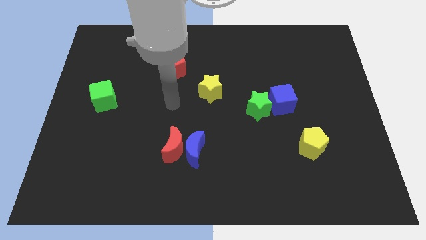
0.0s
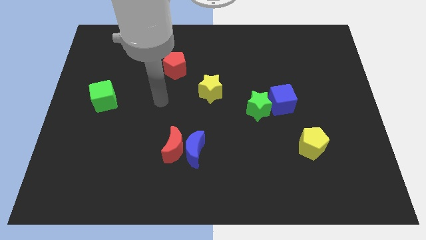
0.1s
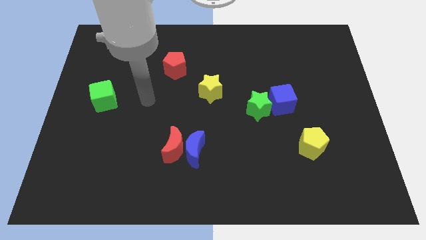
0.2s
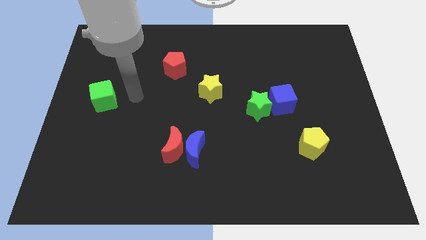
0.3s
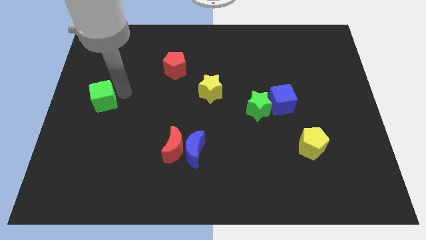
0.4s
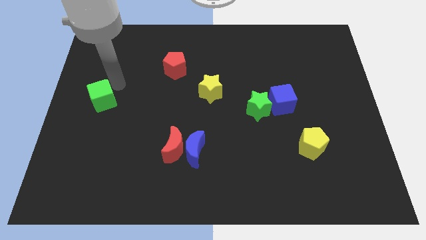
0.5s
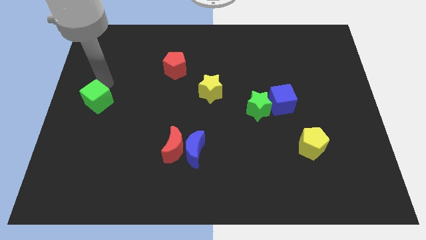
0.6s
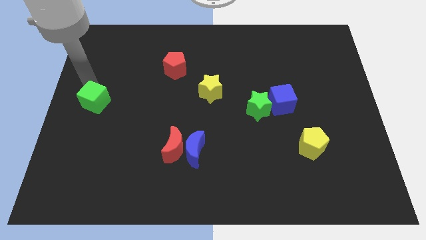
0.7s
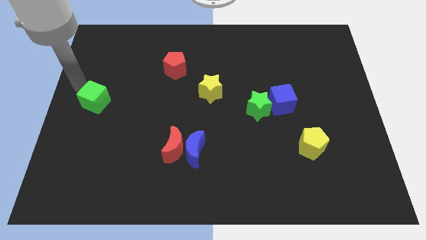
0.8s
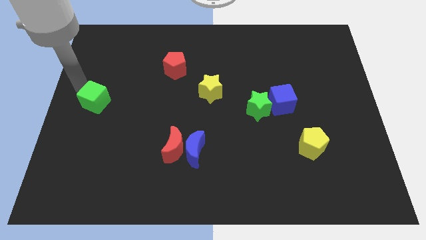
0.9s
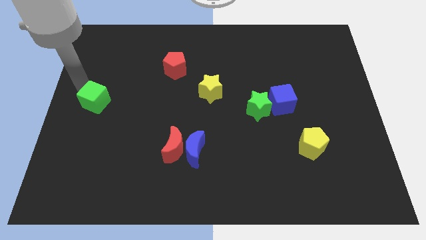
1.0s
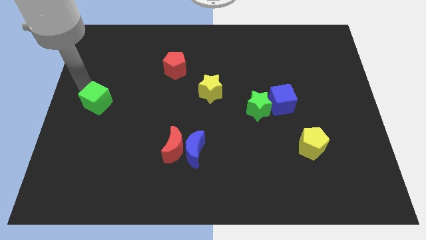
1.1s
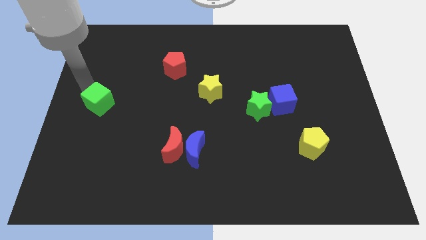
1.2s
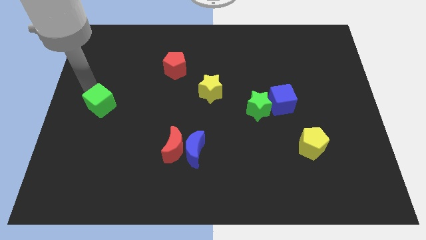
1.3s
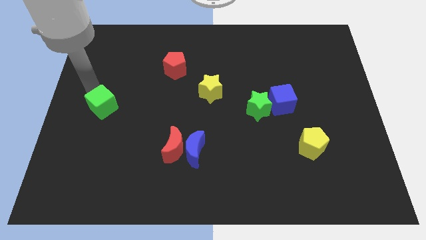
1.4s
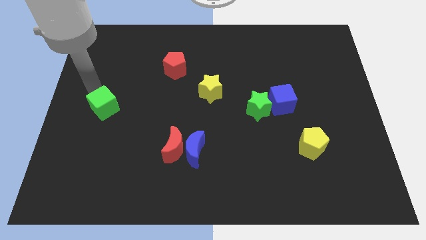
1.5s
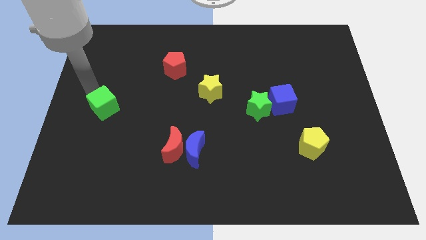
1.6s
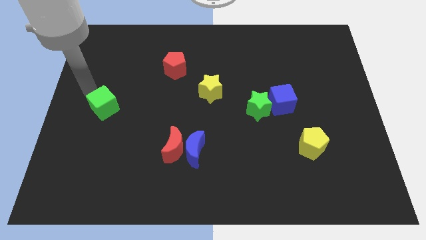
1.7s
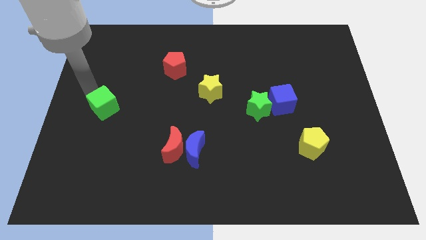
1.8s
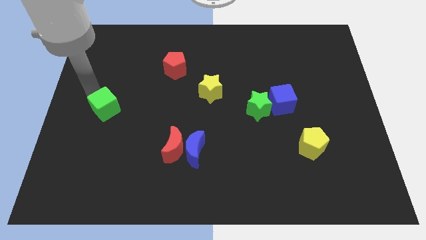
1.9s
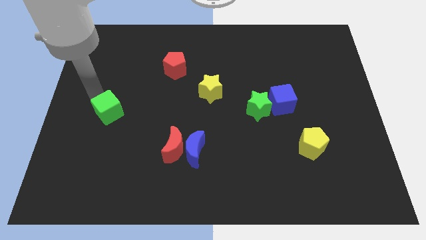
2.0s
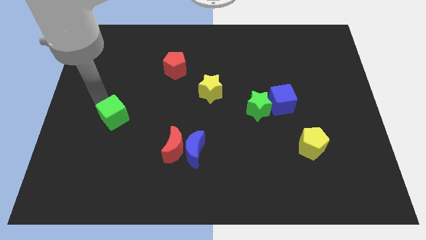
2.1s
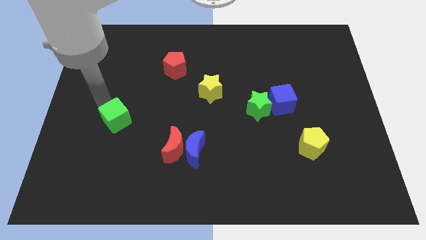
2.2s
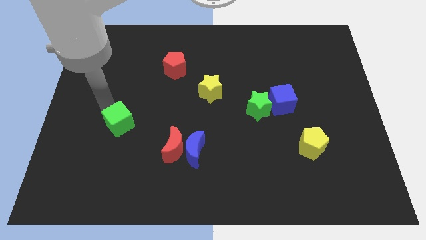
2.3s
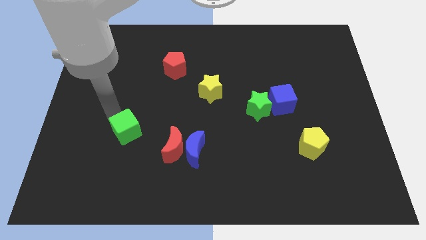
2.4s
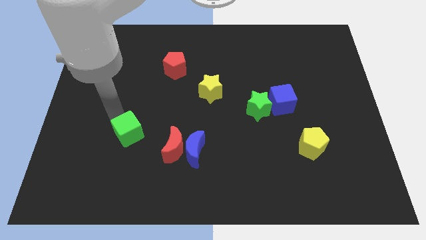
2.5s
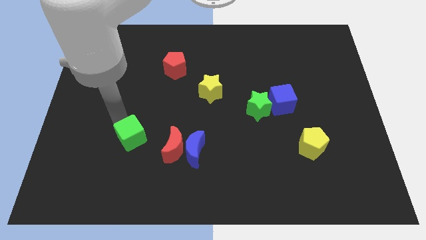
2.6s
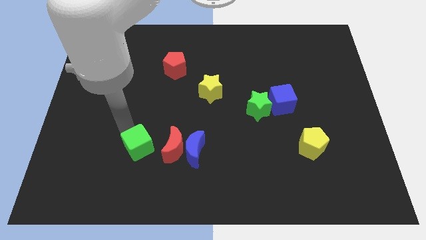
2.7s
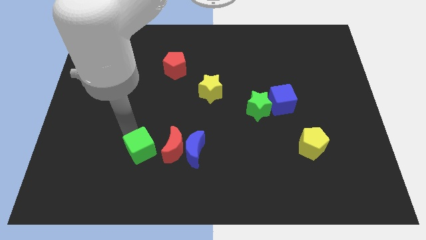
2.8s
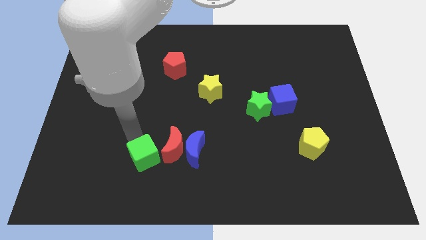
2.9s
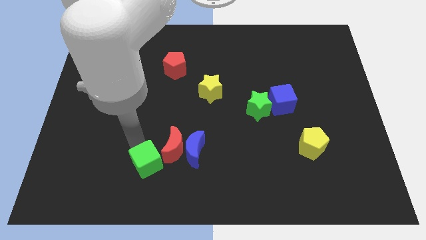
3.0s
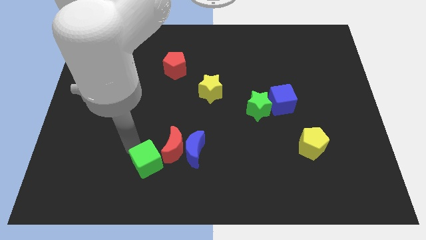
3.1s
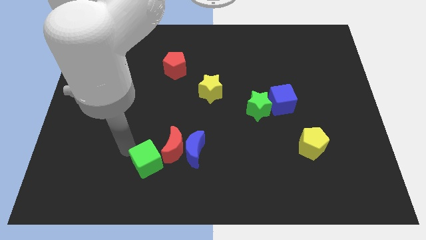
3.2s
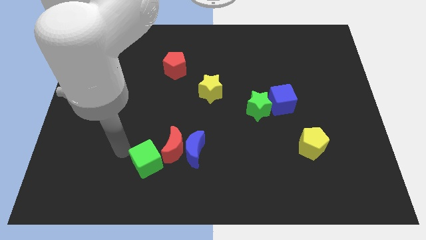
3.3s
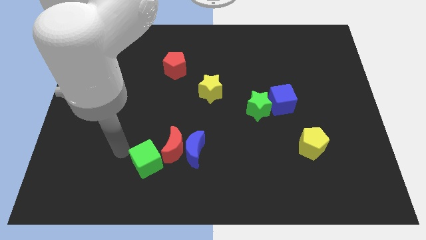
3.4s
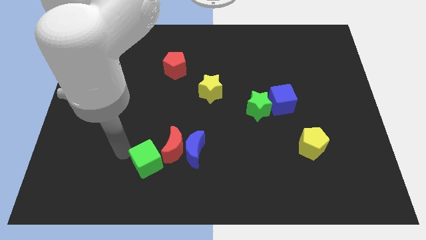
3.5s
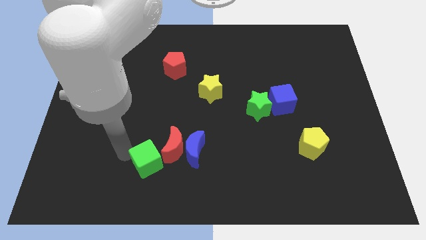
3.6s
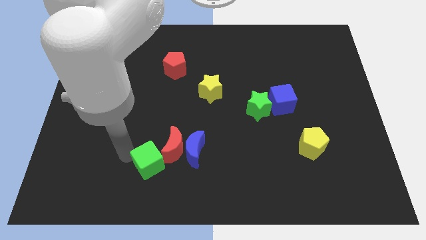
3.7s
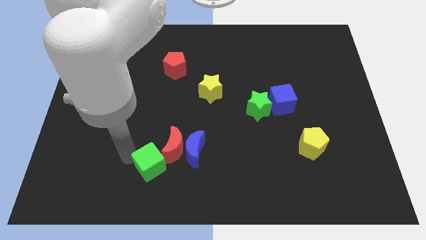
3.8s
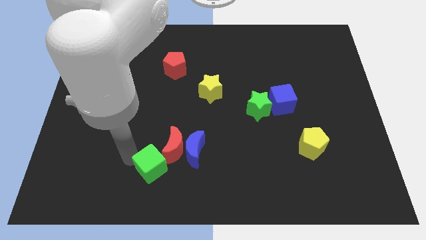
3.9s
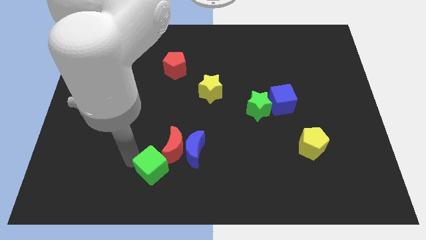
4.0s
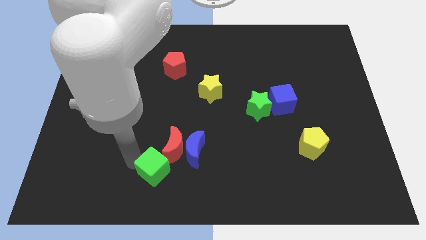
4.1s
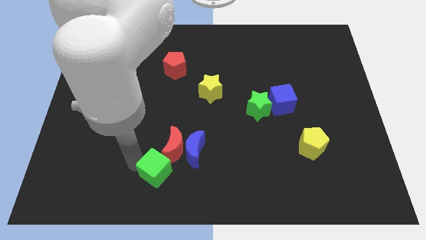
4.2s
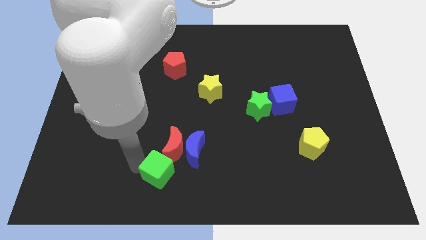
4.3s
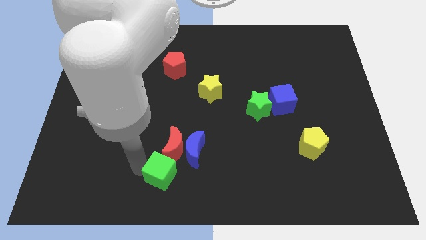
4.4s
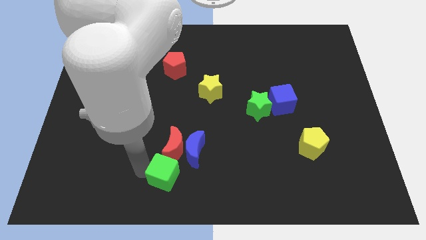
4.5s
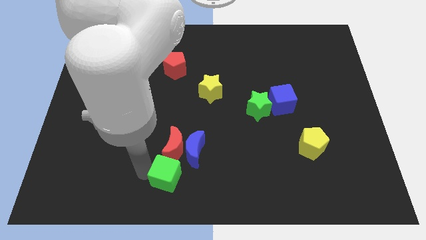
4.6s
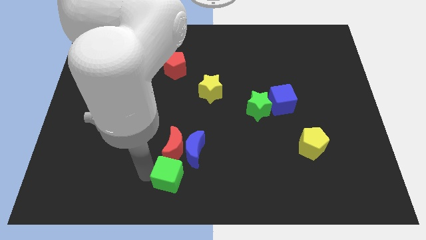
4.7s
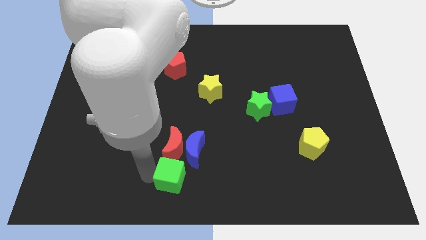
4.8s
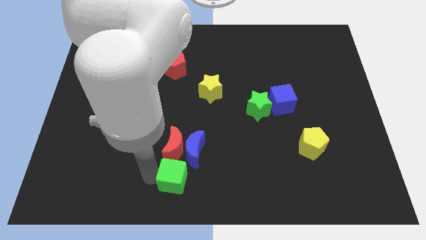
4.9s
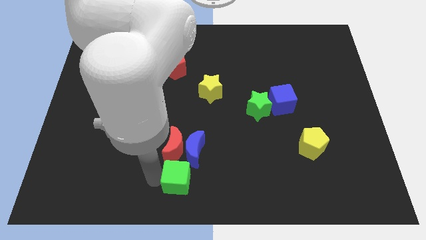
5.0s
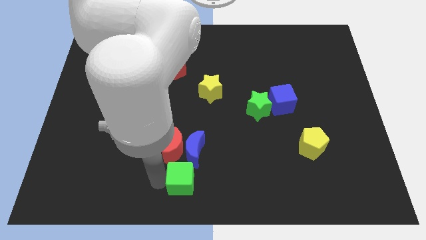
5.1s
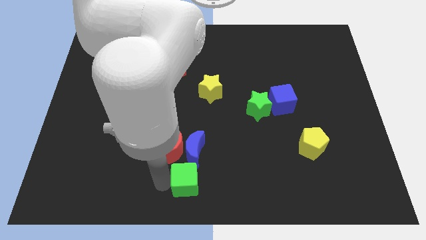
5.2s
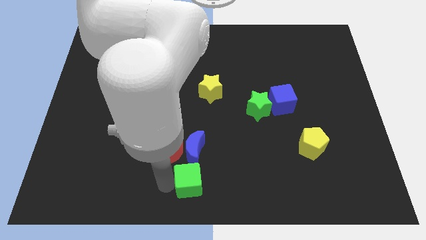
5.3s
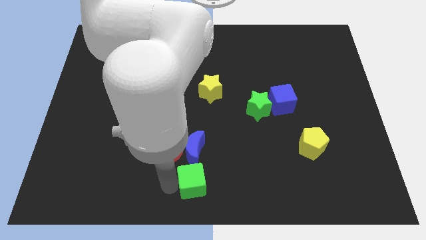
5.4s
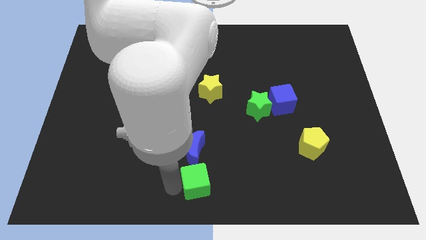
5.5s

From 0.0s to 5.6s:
move the green cube diagonally down and to the right of the blue moon

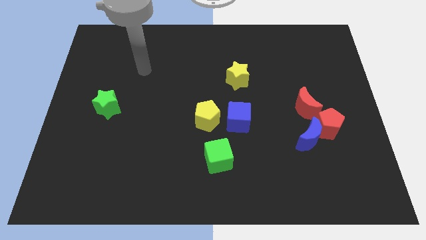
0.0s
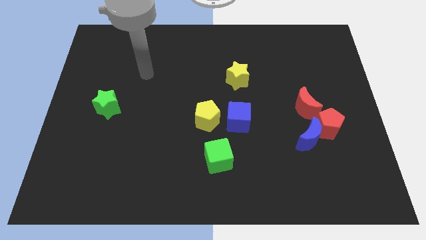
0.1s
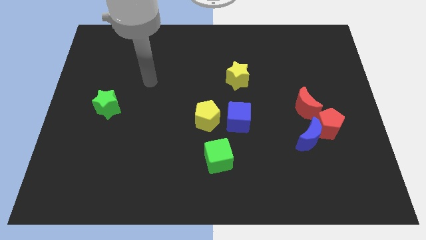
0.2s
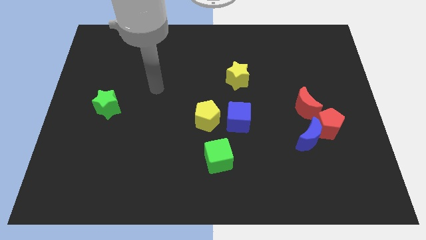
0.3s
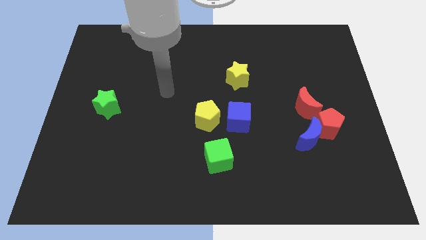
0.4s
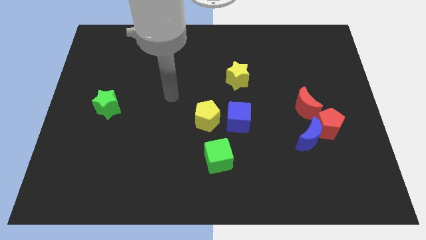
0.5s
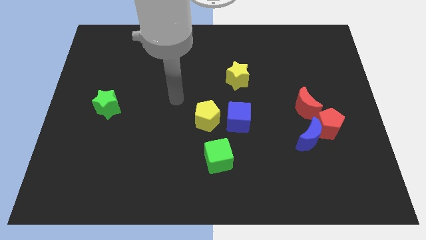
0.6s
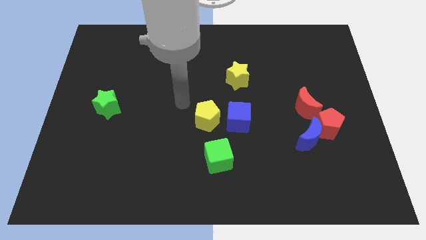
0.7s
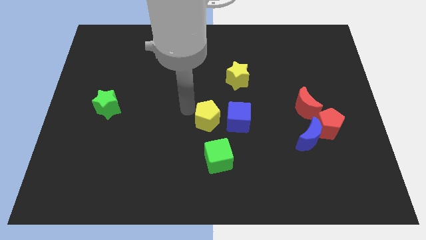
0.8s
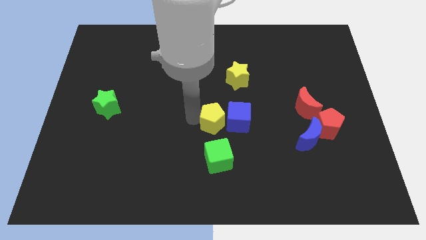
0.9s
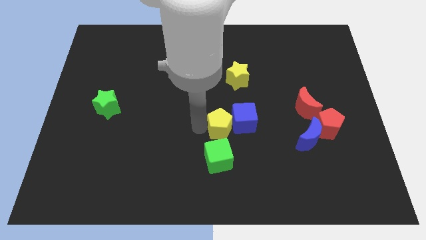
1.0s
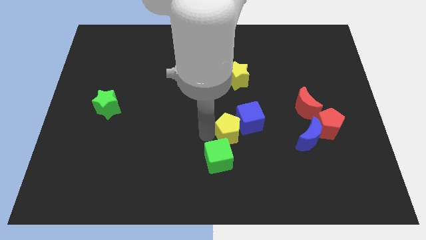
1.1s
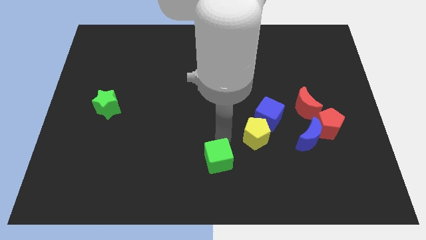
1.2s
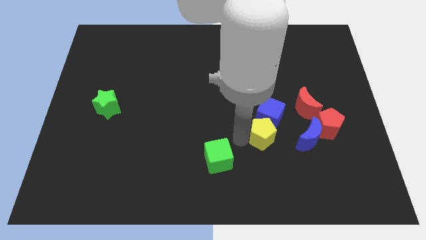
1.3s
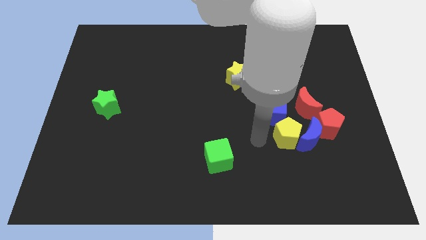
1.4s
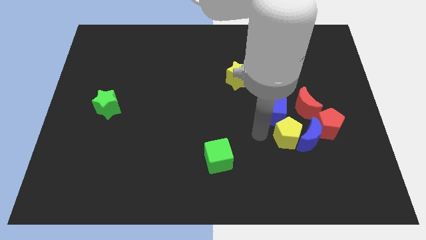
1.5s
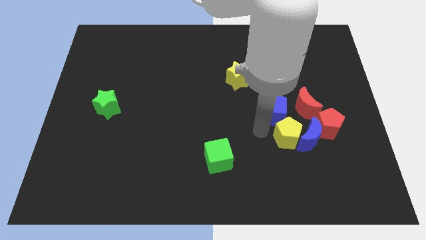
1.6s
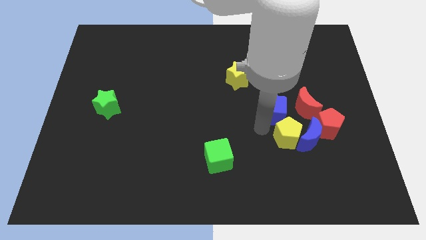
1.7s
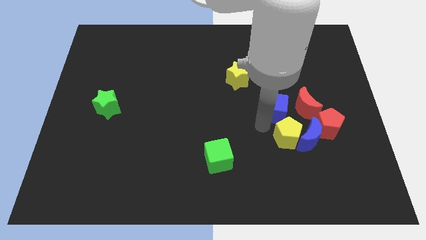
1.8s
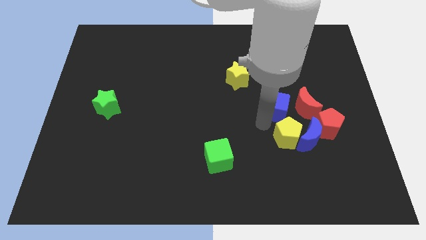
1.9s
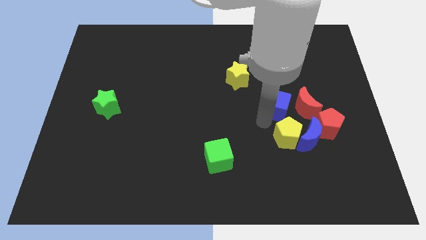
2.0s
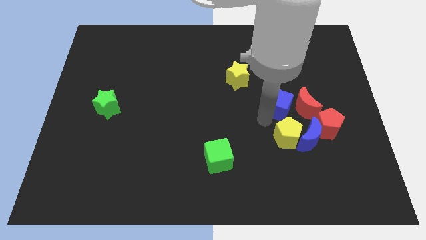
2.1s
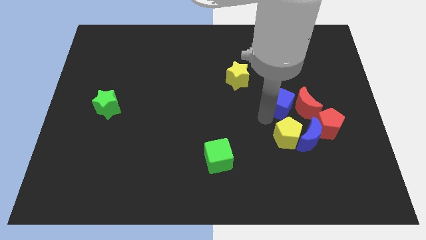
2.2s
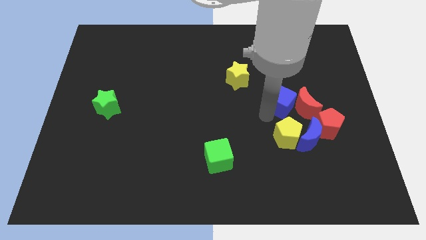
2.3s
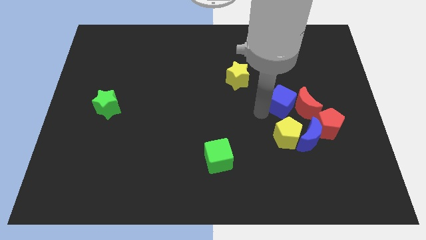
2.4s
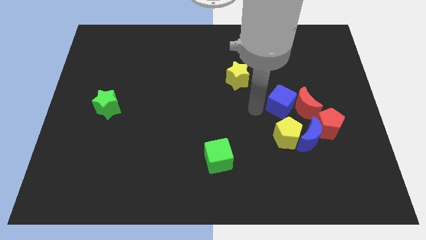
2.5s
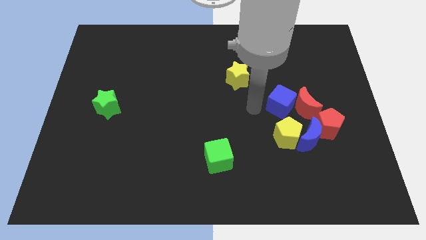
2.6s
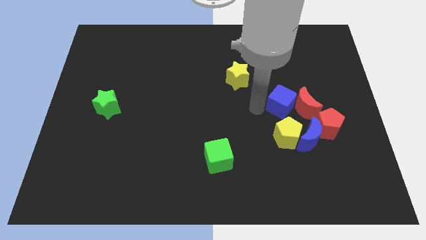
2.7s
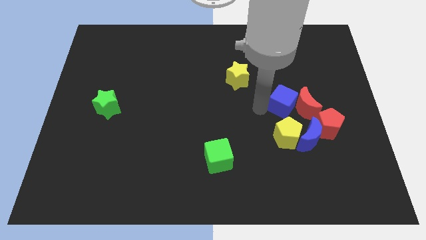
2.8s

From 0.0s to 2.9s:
move the blue cube to the top side of the blue moon
